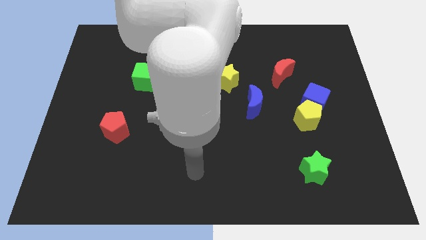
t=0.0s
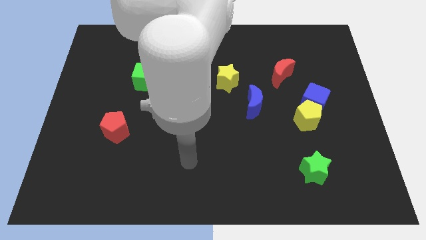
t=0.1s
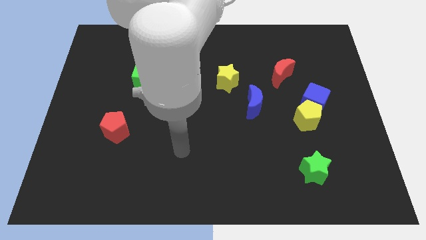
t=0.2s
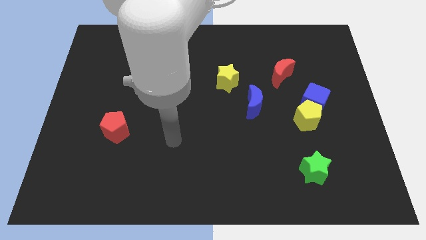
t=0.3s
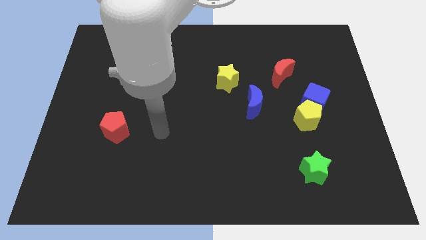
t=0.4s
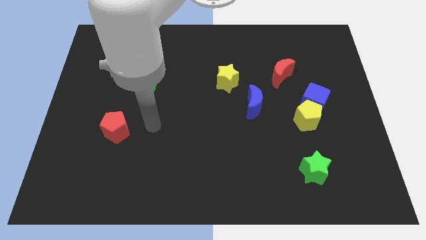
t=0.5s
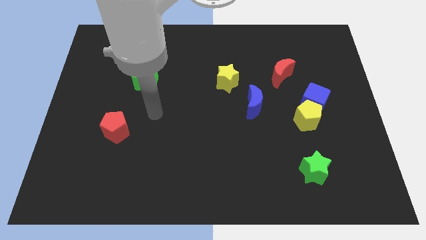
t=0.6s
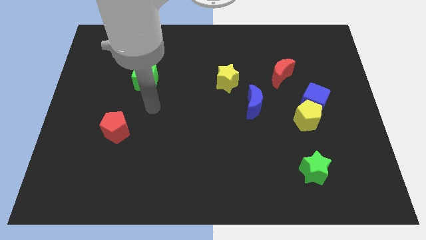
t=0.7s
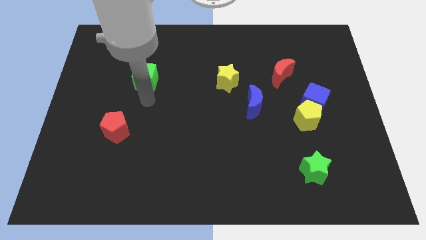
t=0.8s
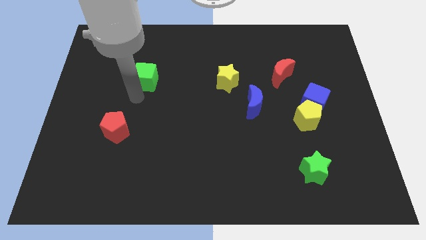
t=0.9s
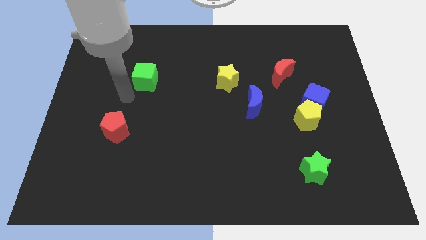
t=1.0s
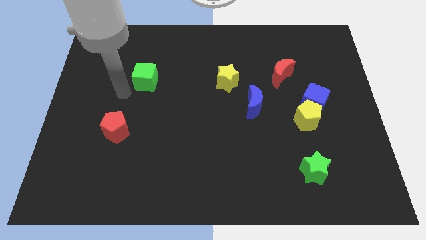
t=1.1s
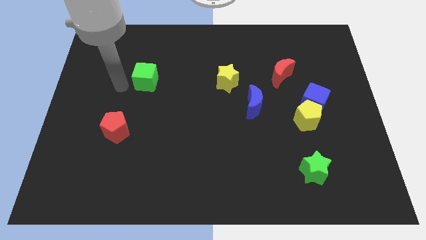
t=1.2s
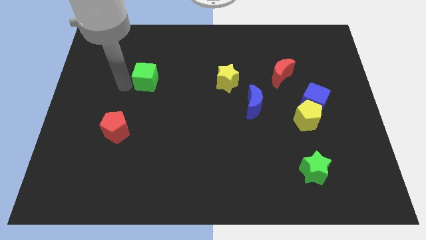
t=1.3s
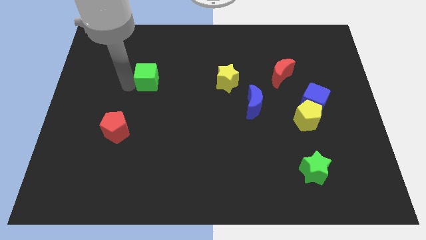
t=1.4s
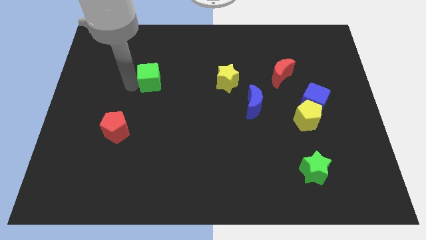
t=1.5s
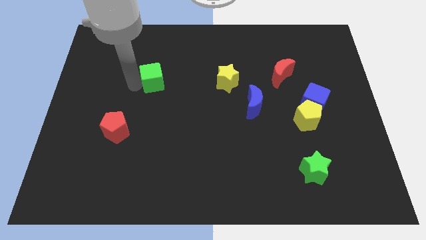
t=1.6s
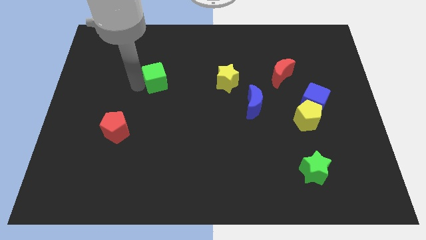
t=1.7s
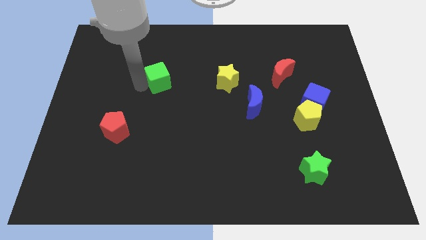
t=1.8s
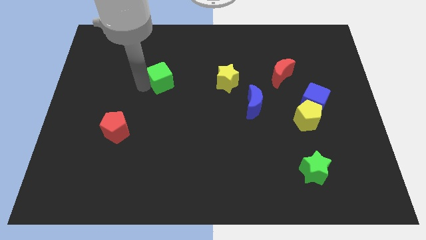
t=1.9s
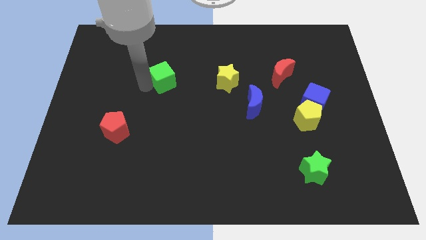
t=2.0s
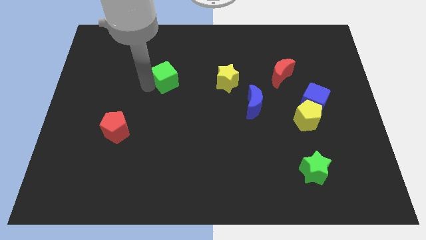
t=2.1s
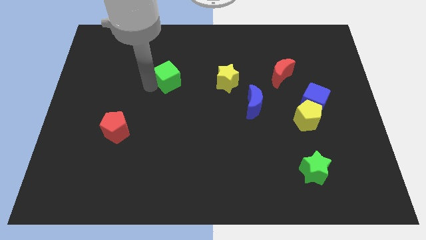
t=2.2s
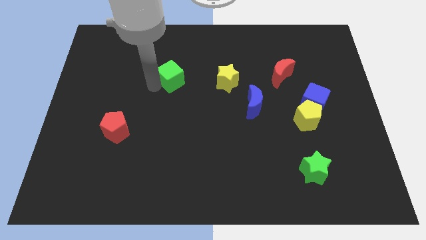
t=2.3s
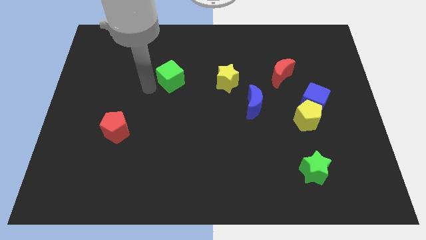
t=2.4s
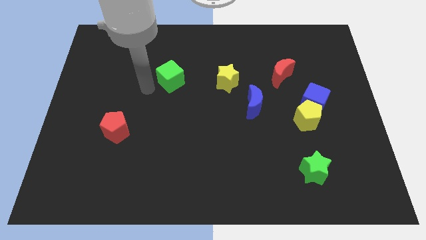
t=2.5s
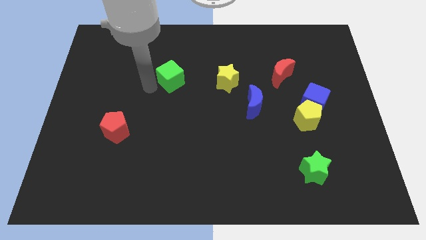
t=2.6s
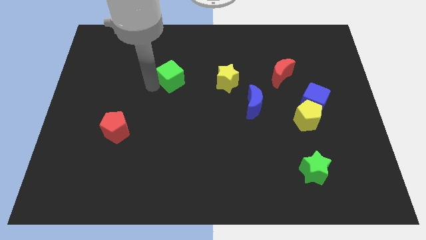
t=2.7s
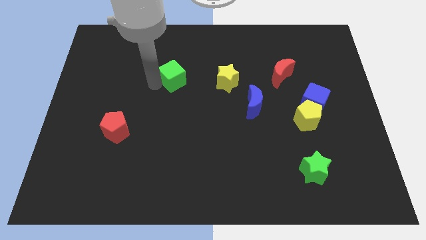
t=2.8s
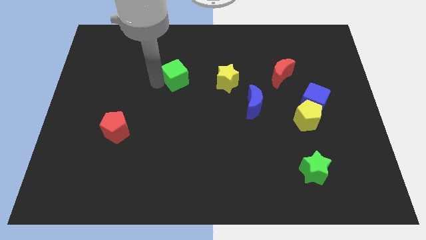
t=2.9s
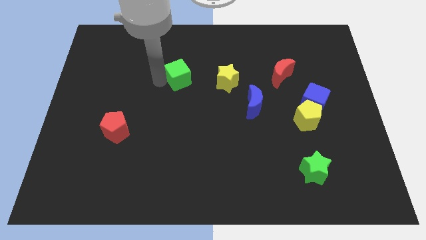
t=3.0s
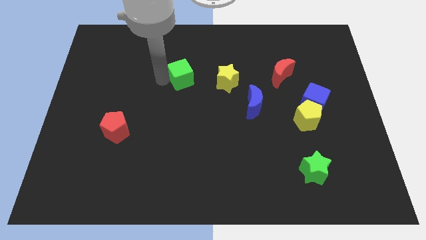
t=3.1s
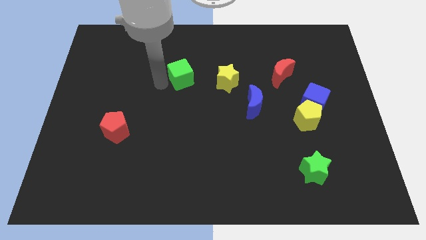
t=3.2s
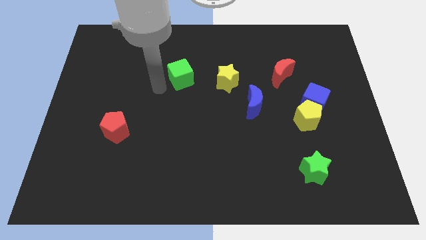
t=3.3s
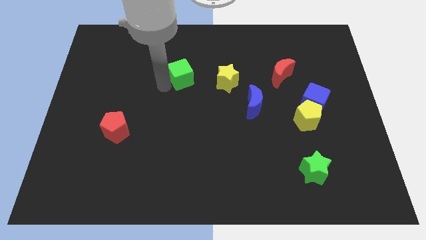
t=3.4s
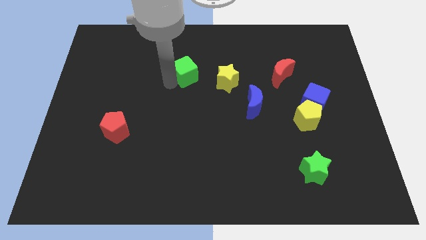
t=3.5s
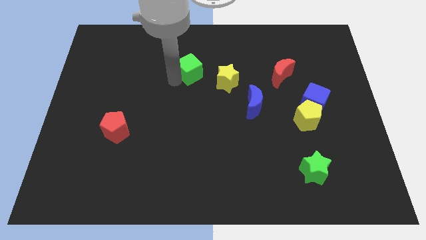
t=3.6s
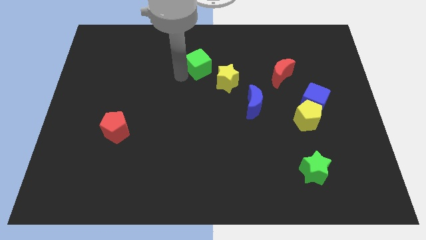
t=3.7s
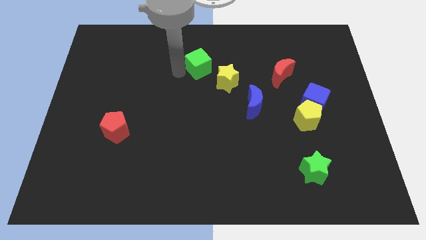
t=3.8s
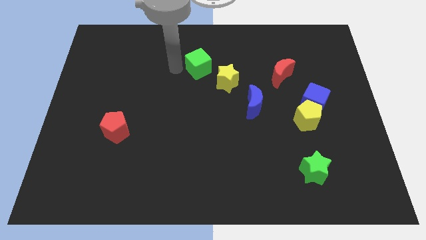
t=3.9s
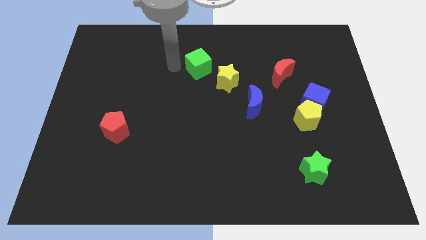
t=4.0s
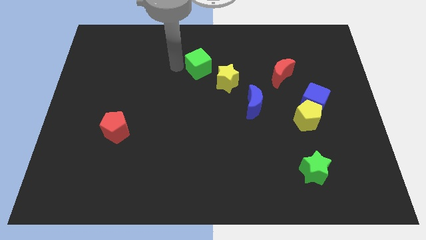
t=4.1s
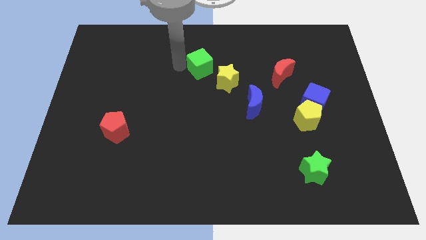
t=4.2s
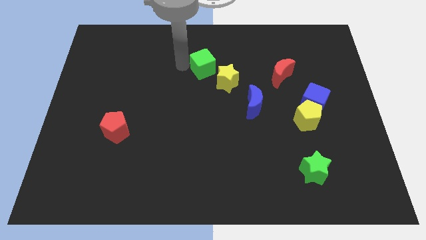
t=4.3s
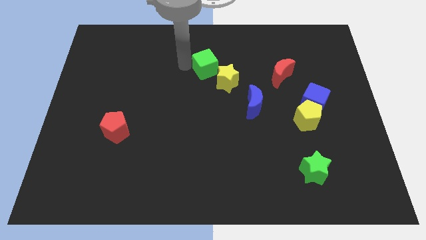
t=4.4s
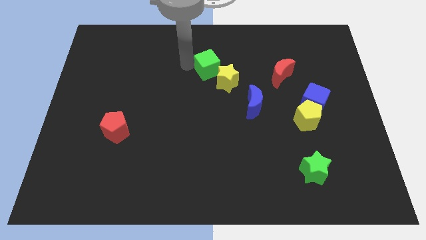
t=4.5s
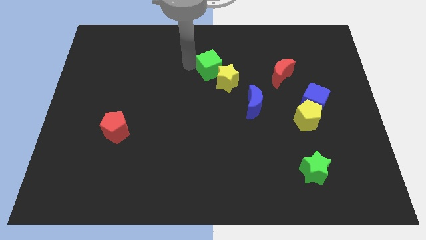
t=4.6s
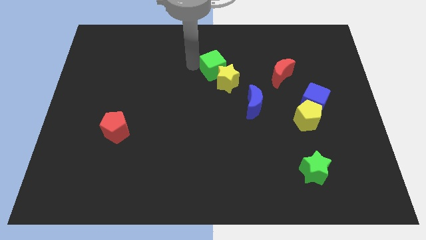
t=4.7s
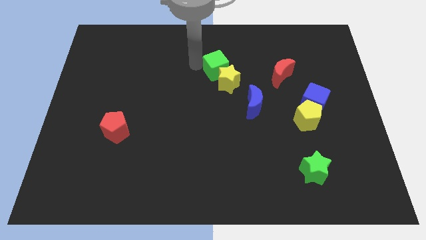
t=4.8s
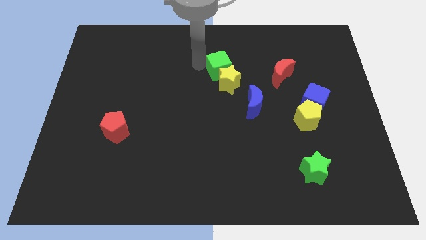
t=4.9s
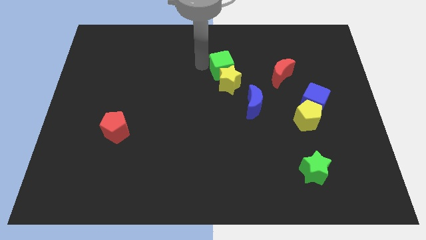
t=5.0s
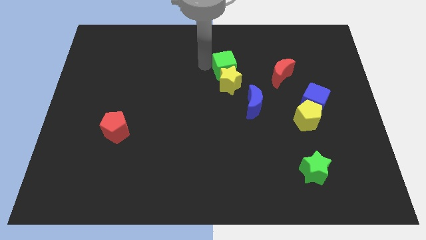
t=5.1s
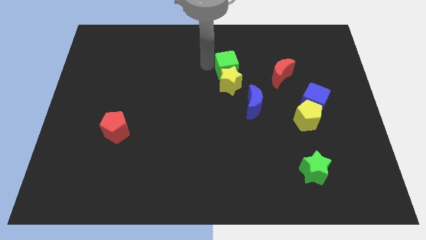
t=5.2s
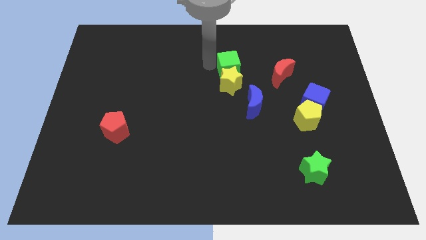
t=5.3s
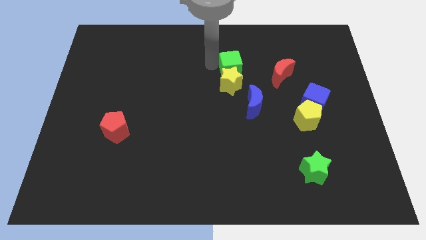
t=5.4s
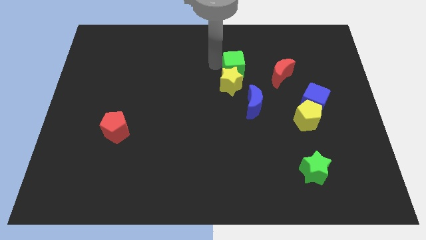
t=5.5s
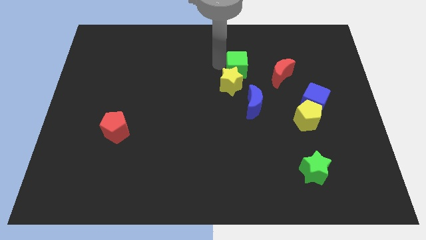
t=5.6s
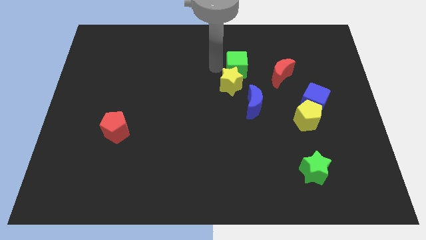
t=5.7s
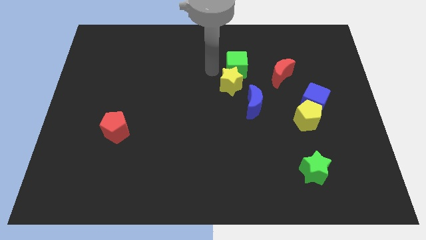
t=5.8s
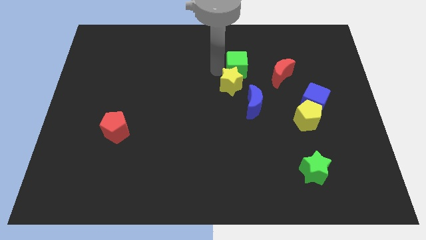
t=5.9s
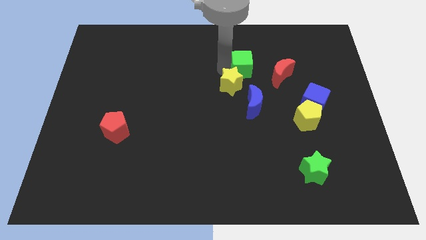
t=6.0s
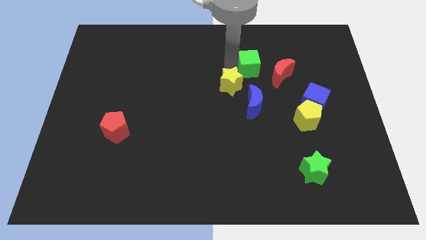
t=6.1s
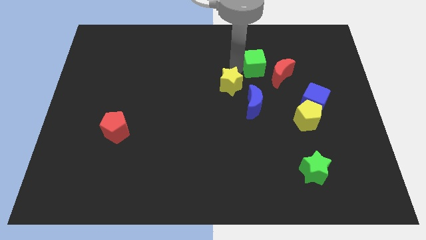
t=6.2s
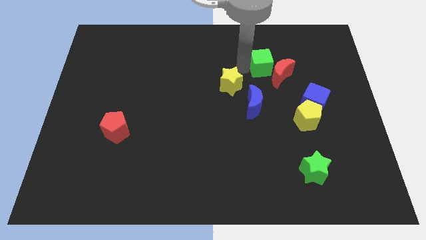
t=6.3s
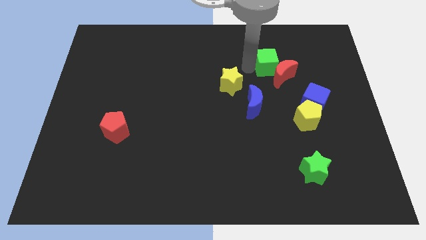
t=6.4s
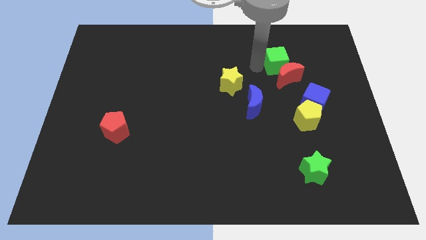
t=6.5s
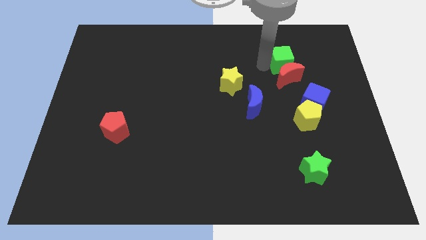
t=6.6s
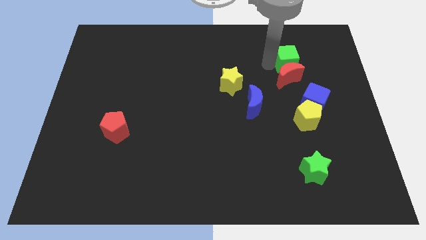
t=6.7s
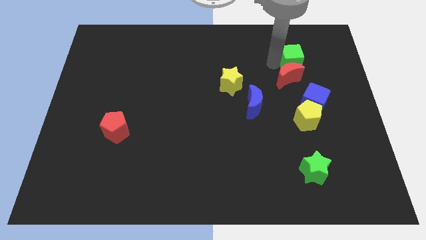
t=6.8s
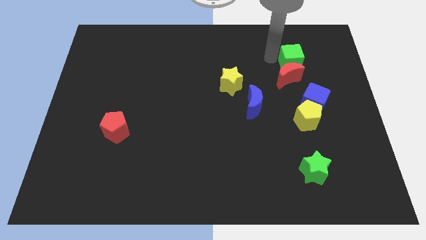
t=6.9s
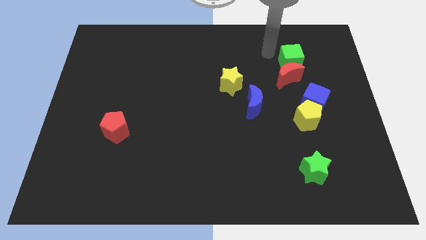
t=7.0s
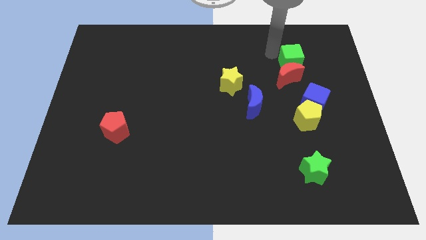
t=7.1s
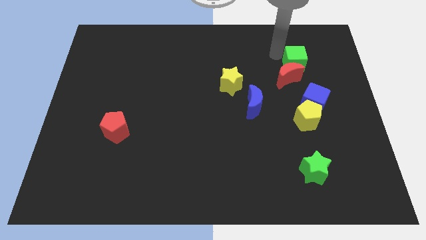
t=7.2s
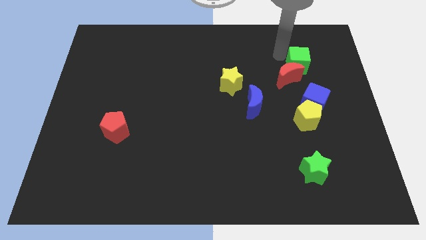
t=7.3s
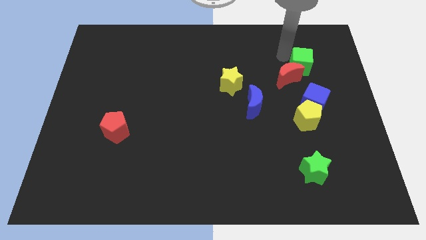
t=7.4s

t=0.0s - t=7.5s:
push the green cube right of the red moon

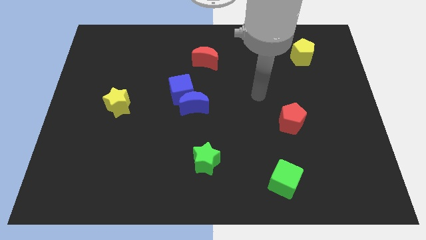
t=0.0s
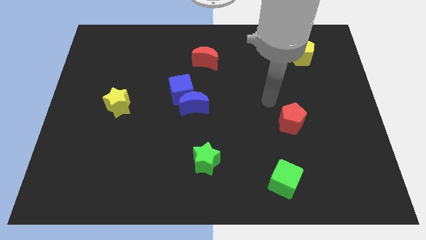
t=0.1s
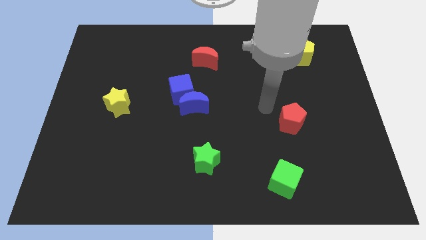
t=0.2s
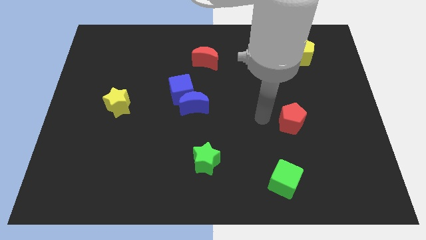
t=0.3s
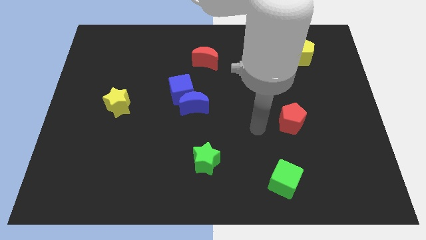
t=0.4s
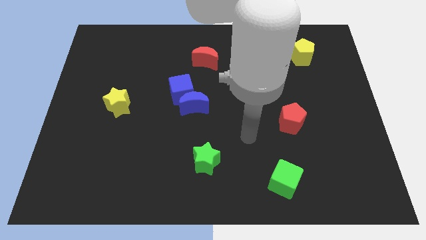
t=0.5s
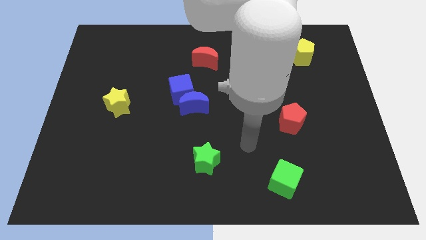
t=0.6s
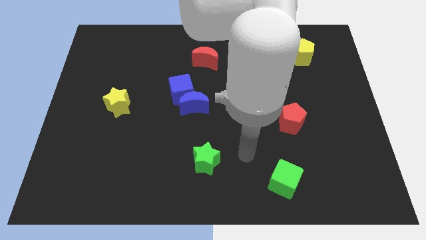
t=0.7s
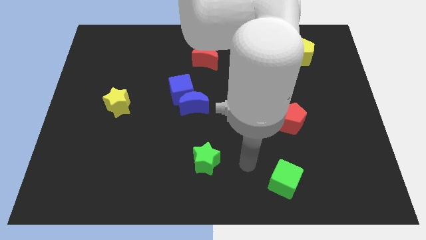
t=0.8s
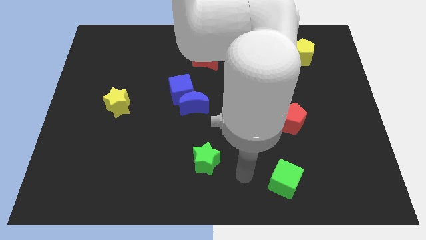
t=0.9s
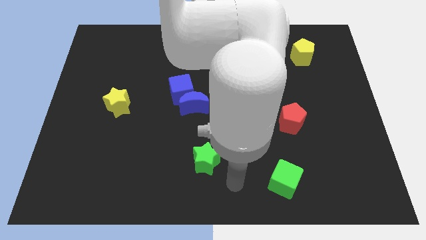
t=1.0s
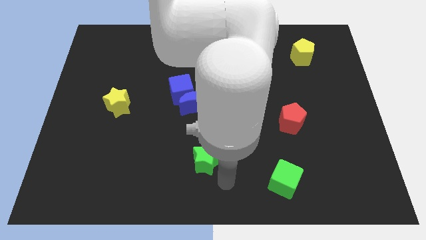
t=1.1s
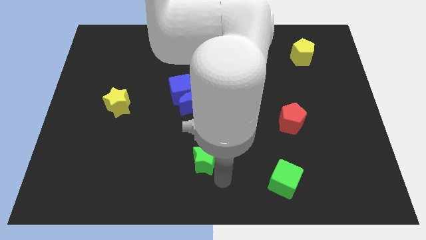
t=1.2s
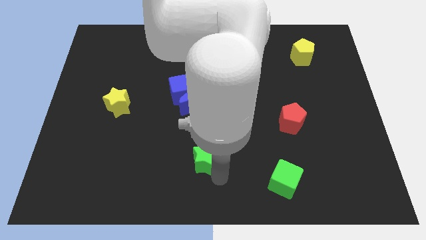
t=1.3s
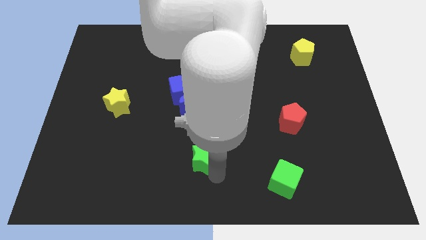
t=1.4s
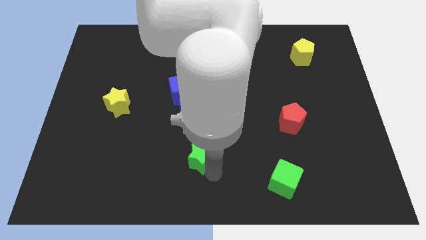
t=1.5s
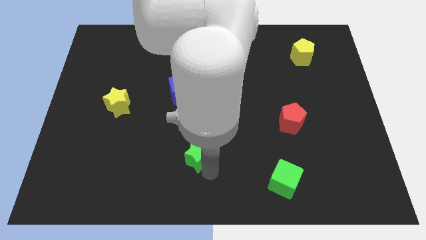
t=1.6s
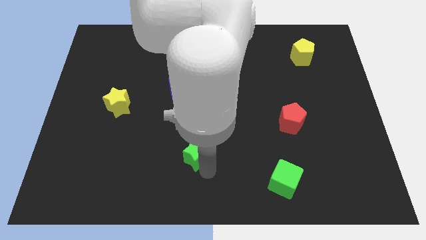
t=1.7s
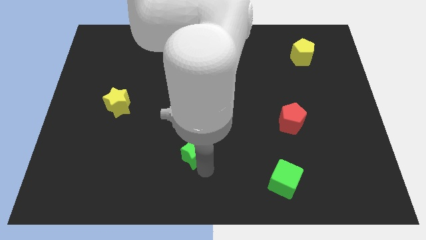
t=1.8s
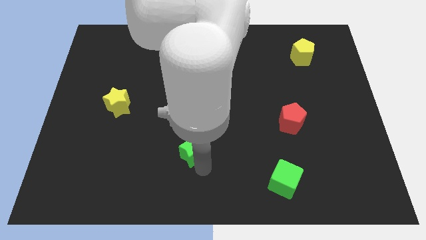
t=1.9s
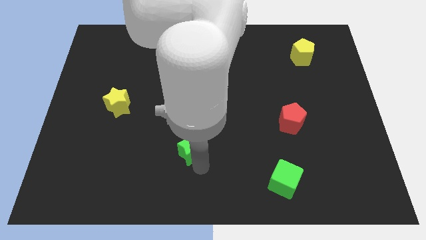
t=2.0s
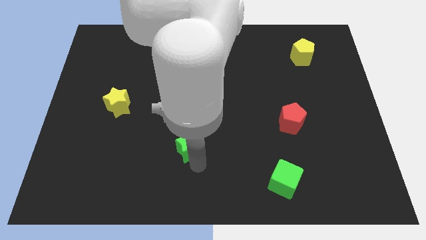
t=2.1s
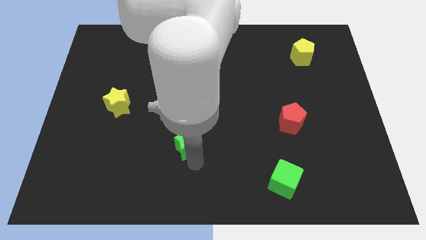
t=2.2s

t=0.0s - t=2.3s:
push the green star below the blue cube
